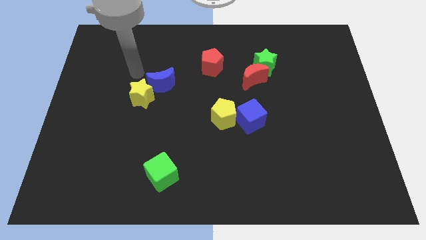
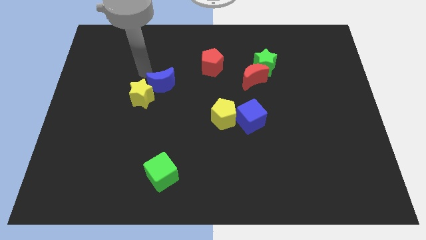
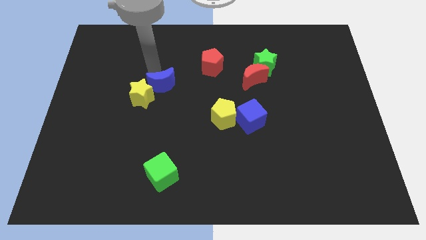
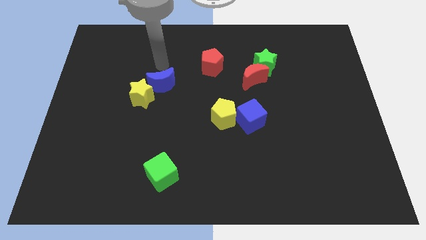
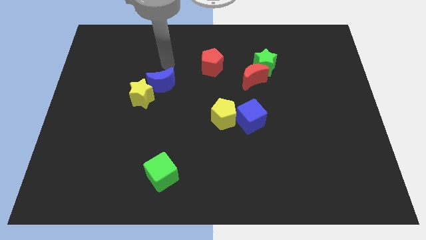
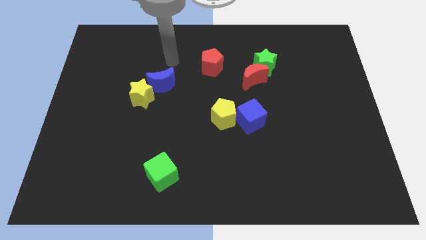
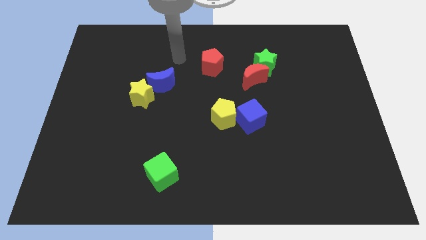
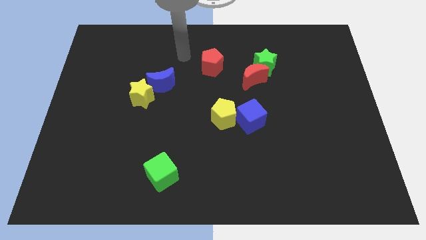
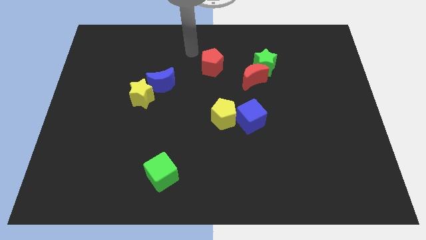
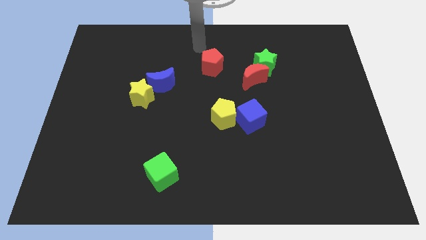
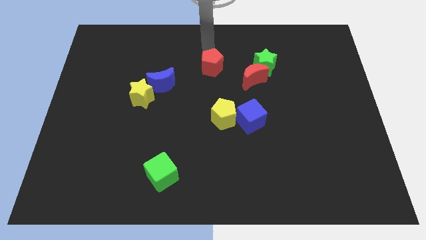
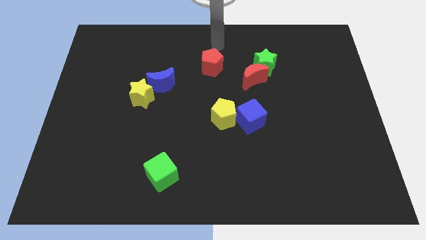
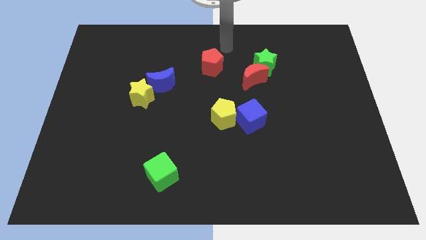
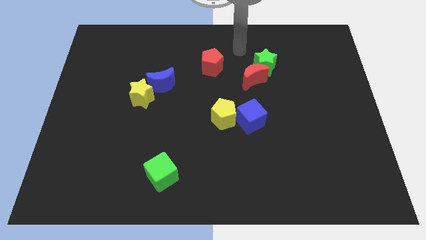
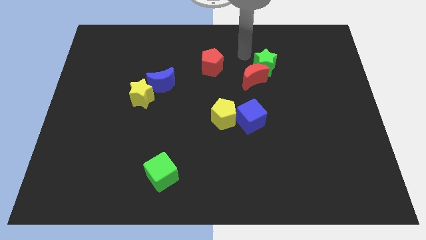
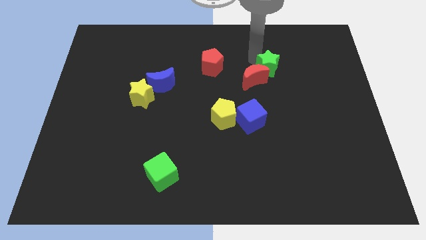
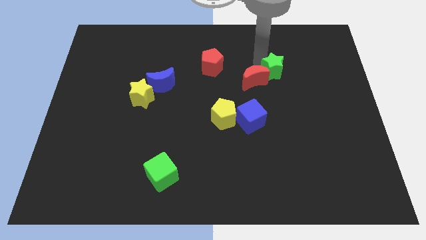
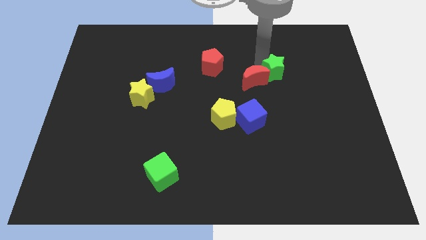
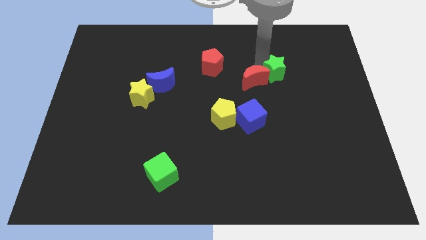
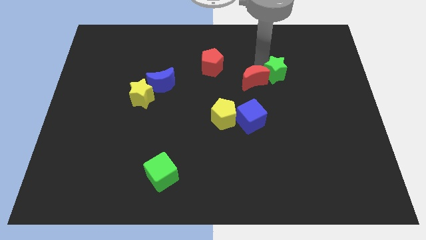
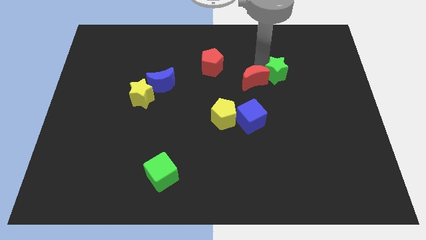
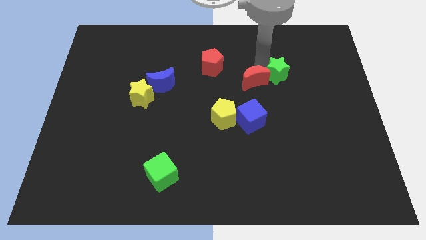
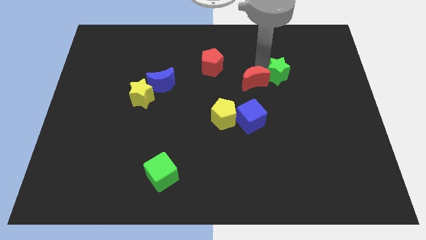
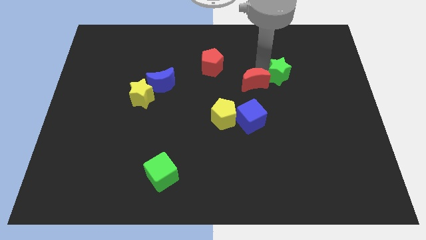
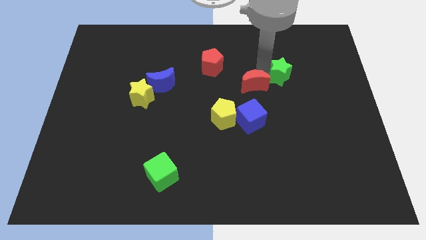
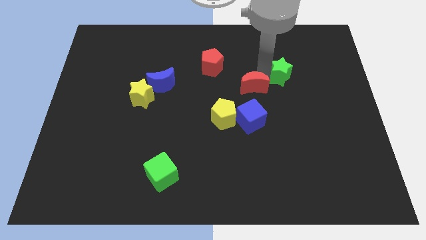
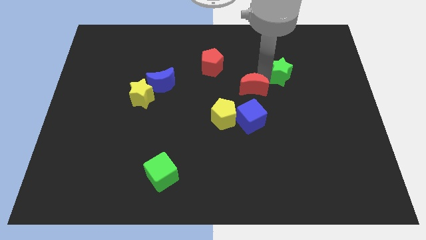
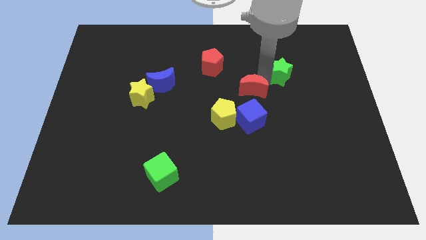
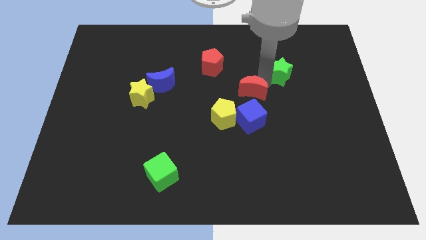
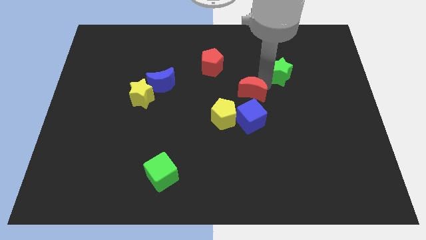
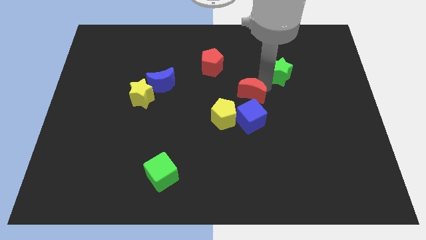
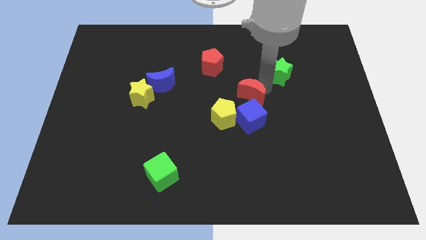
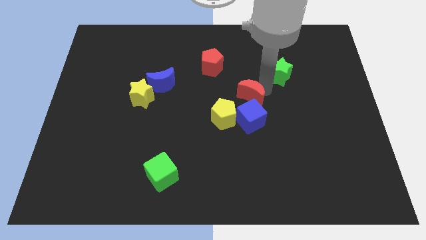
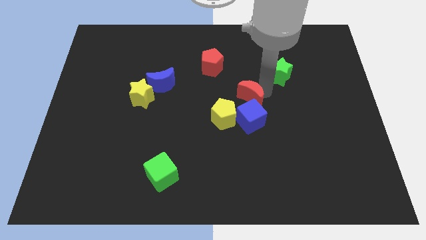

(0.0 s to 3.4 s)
move the red moon away from the green star

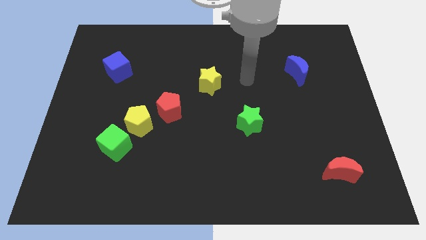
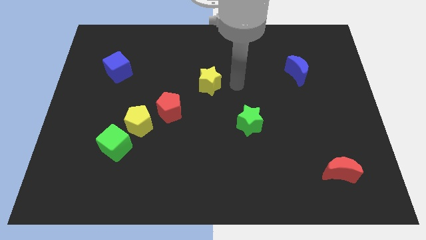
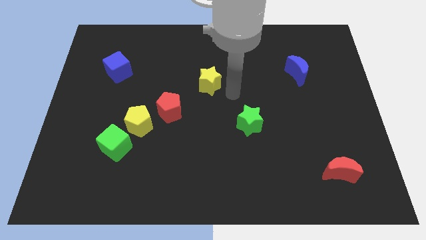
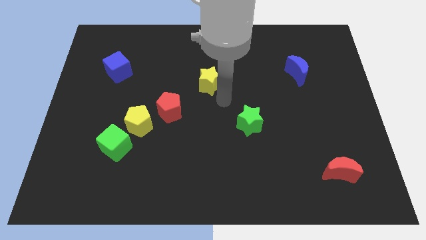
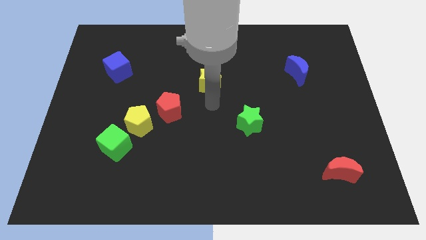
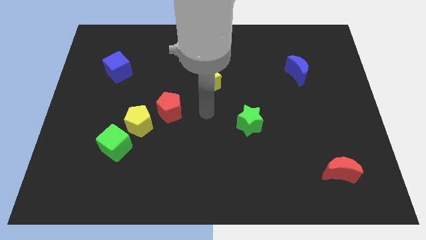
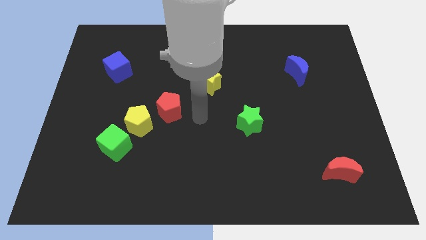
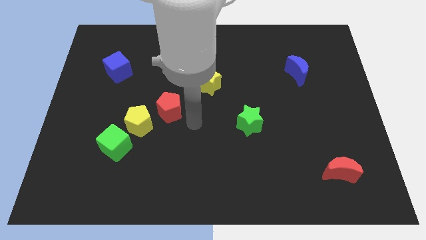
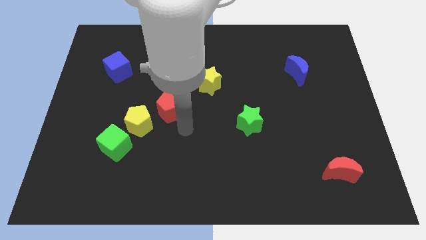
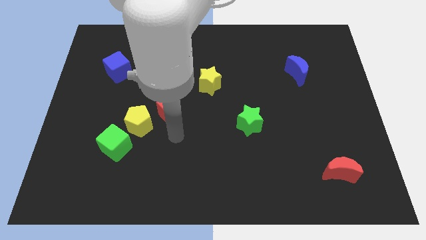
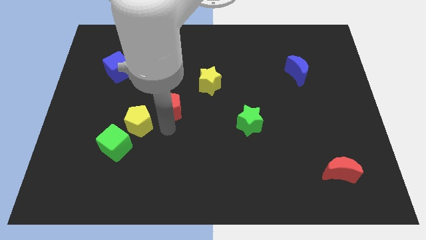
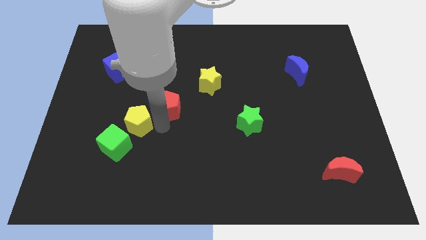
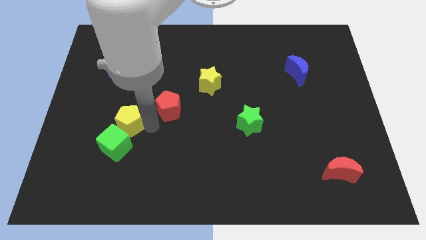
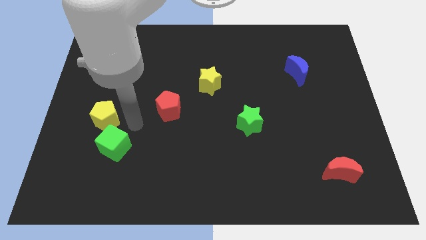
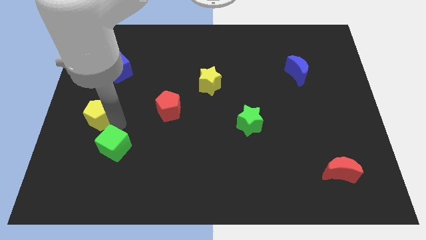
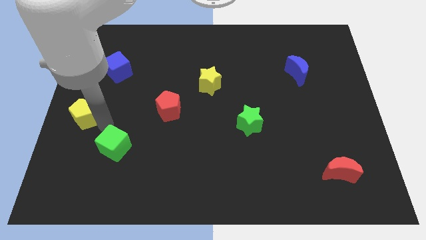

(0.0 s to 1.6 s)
pull the green cube apart from the yellow pentagon

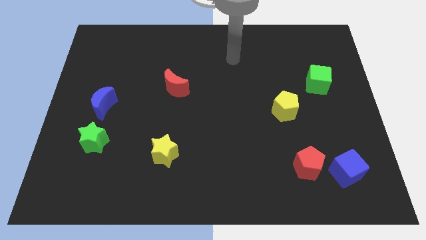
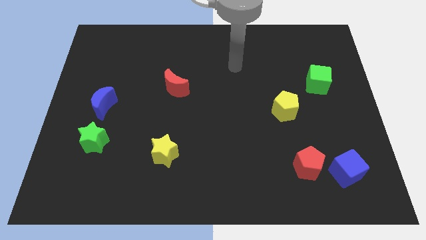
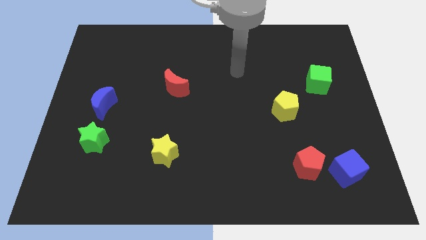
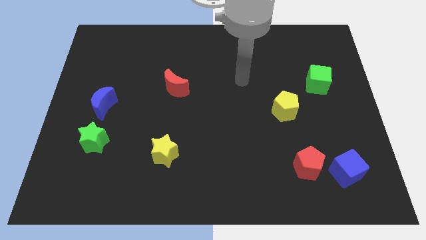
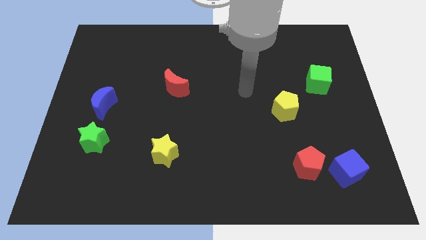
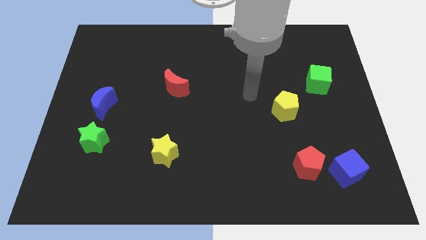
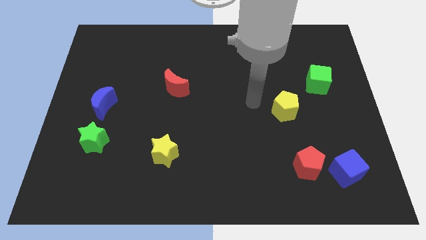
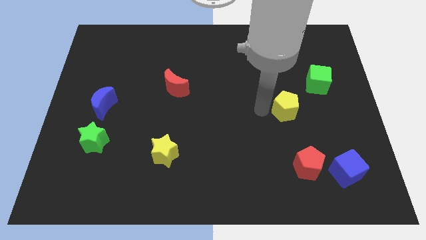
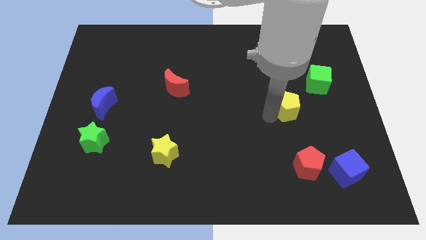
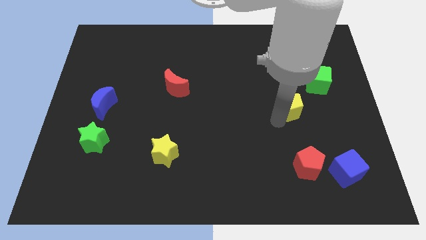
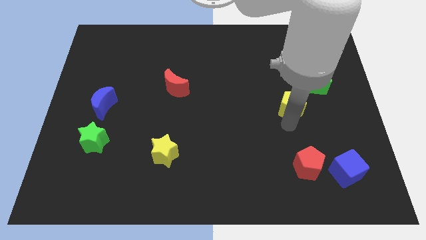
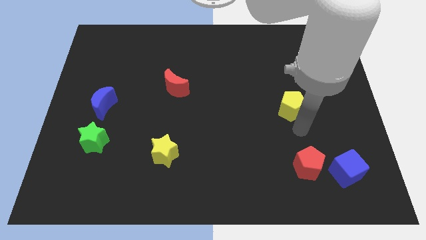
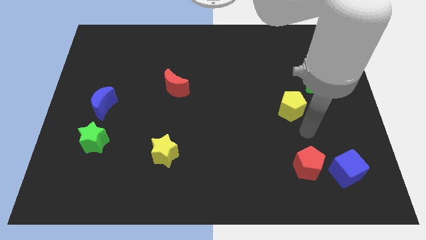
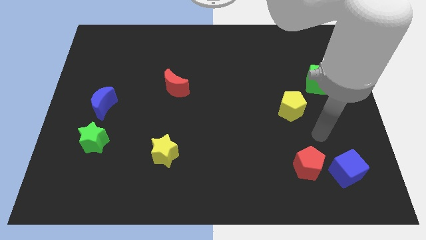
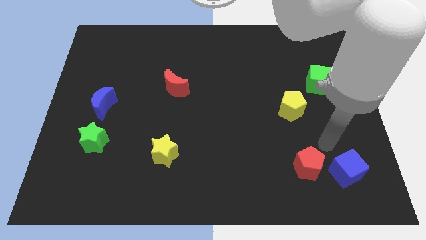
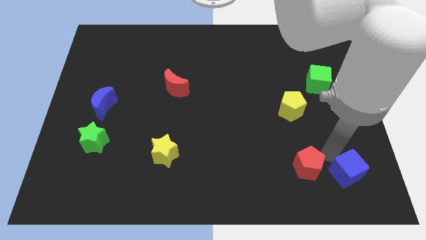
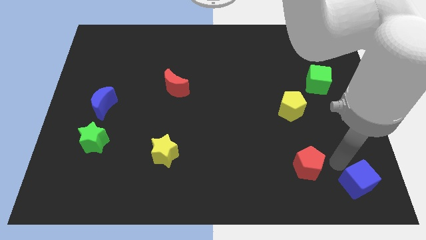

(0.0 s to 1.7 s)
pull the red pentagon apart from the blue cube

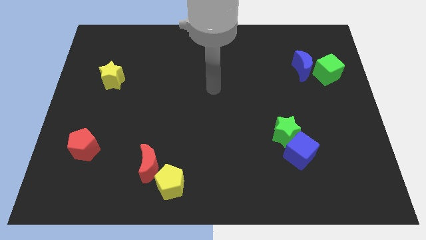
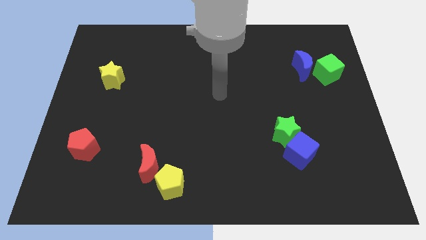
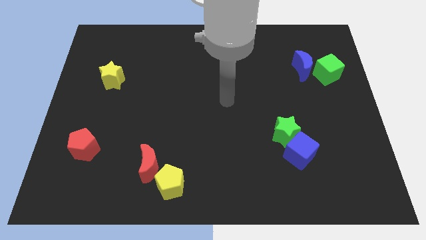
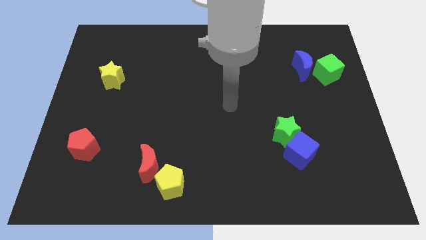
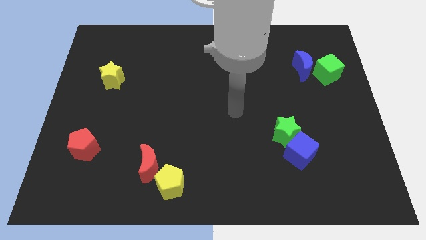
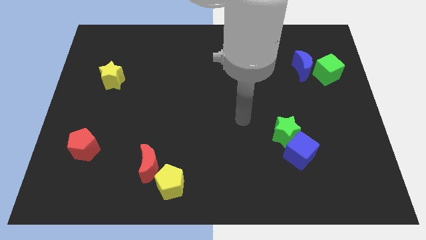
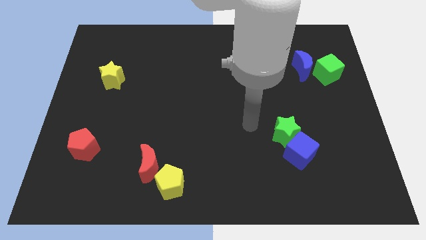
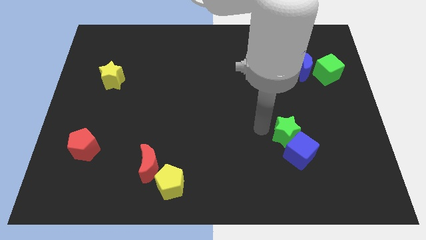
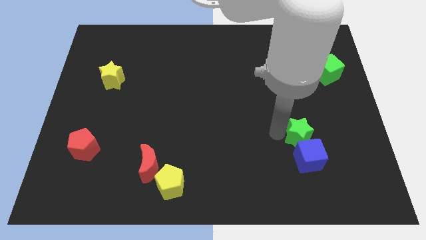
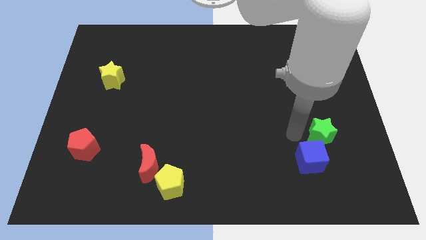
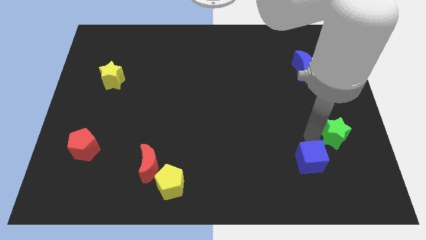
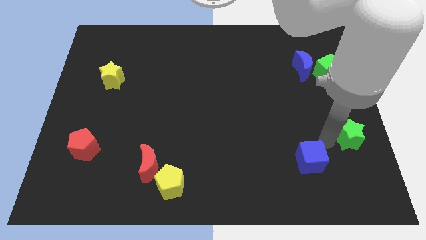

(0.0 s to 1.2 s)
separate the blue cube from the green star

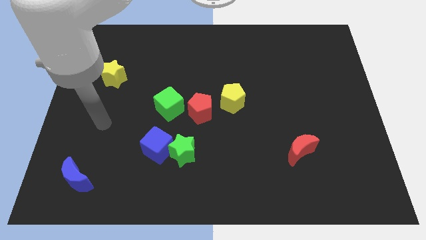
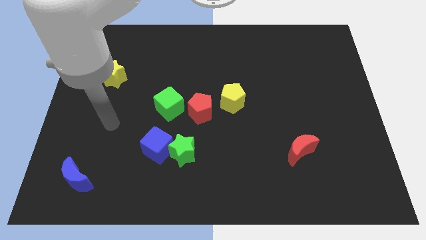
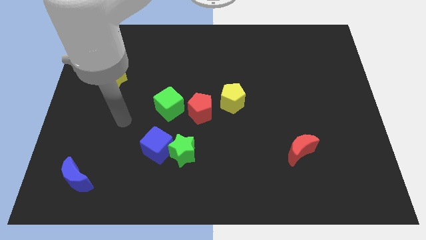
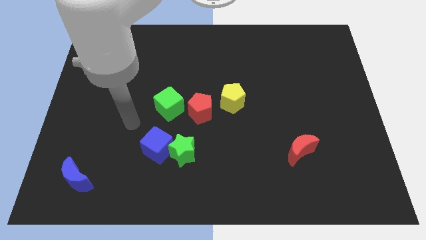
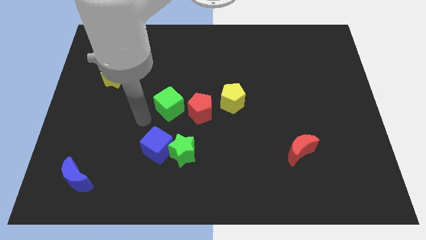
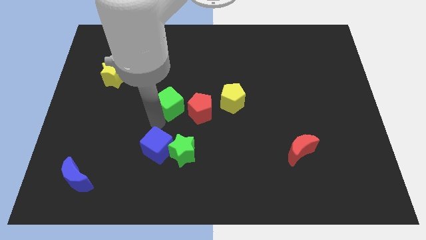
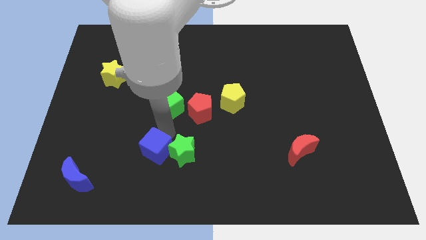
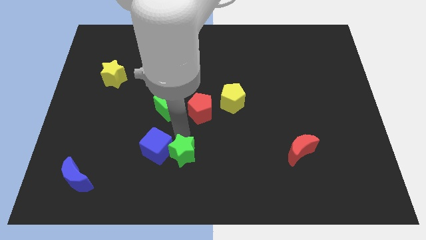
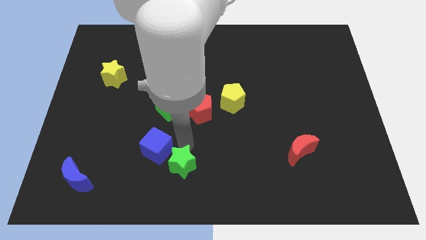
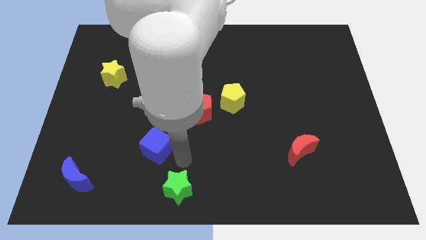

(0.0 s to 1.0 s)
move the blue cube away from the green star

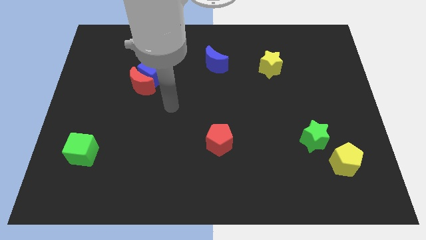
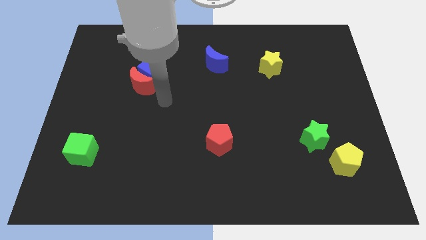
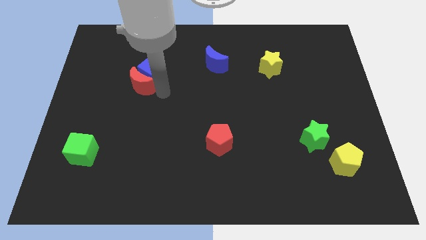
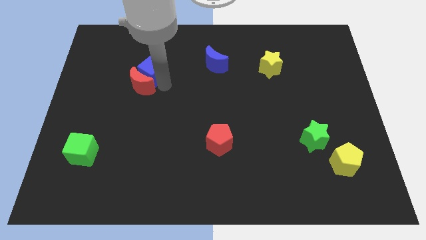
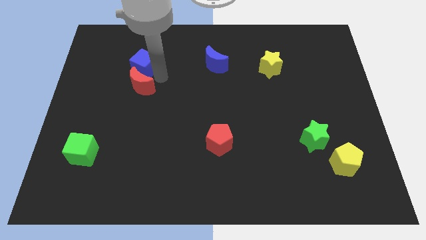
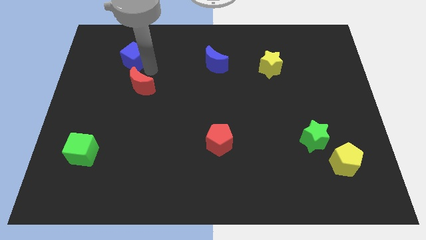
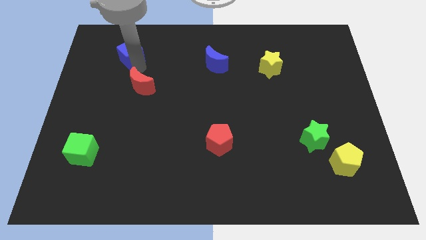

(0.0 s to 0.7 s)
pull the red moon apart from the blue cube
